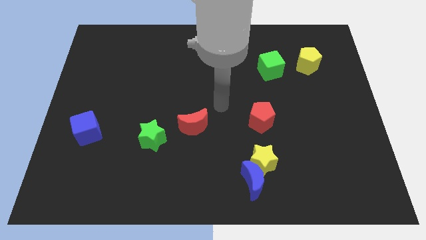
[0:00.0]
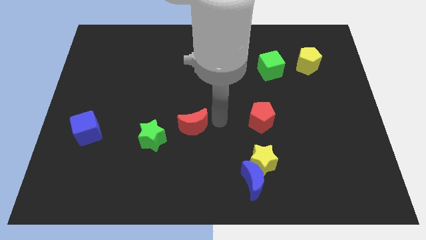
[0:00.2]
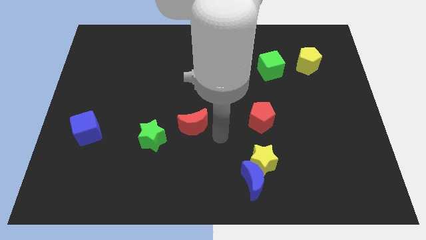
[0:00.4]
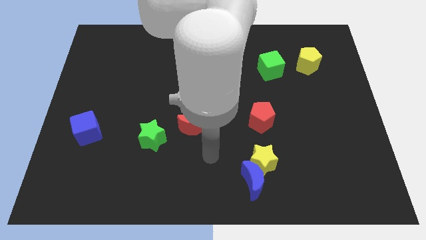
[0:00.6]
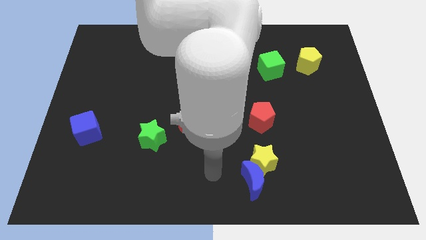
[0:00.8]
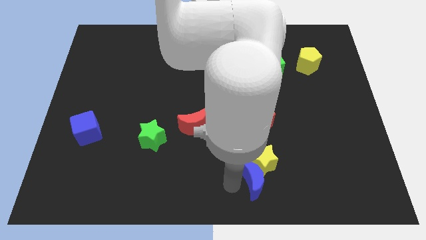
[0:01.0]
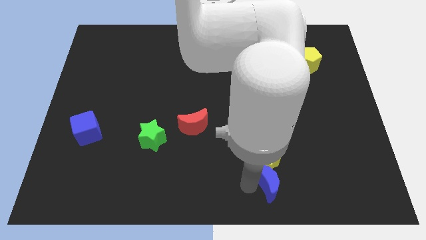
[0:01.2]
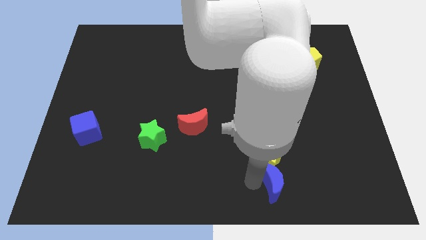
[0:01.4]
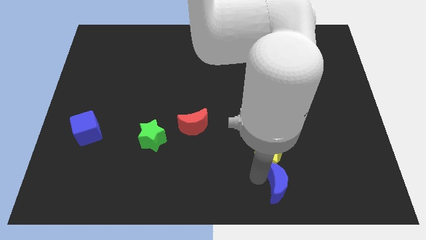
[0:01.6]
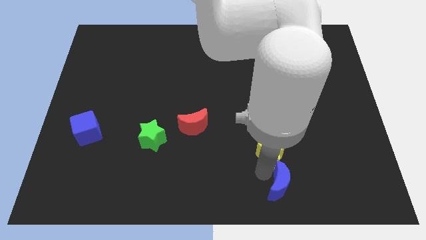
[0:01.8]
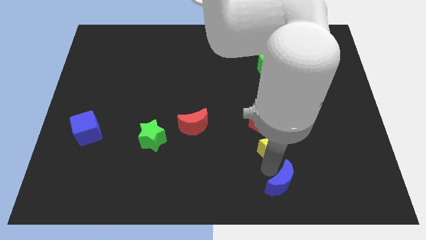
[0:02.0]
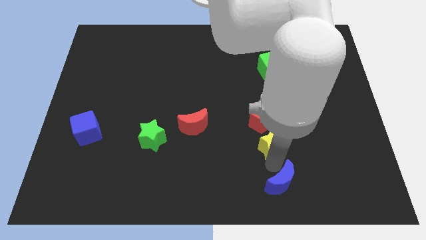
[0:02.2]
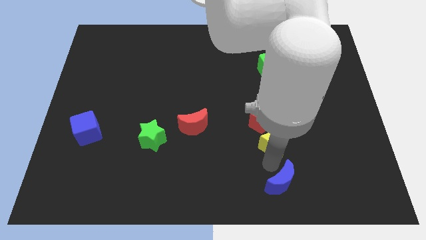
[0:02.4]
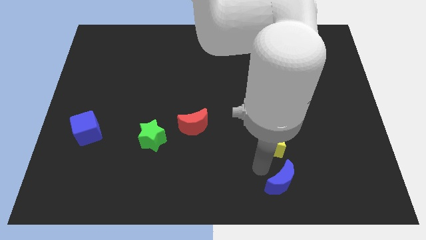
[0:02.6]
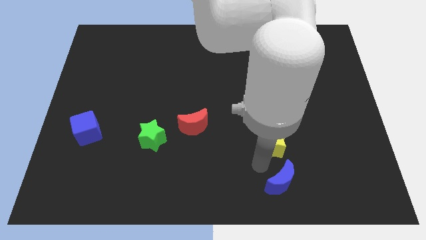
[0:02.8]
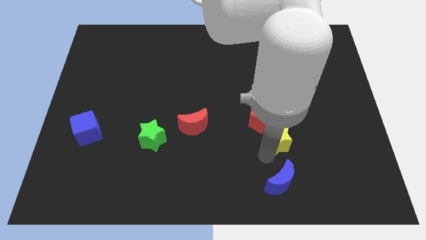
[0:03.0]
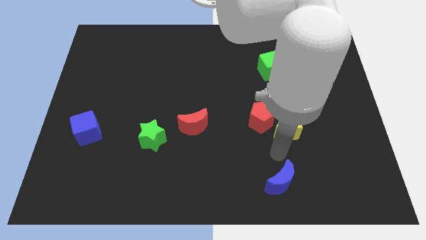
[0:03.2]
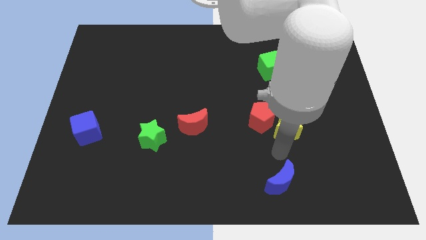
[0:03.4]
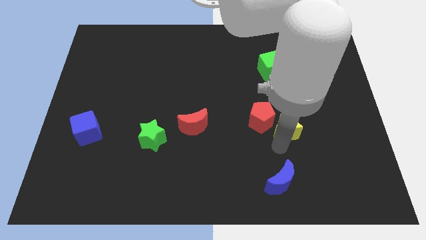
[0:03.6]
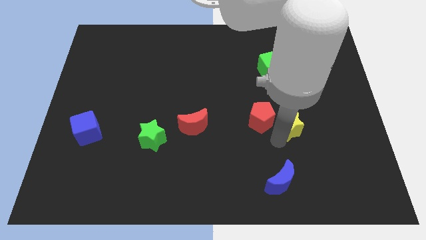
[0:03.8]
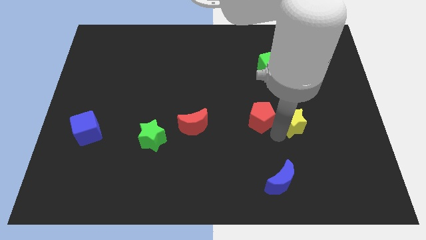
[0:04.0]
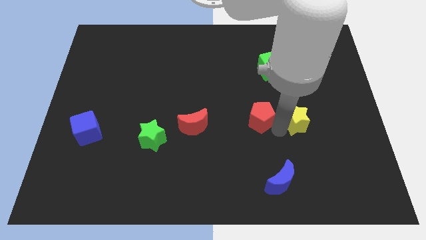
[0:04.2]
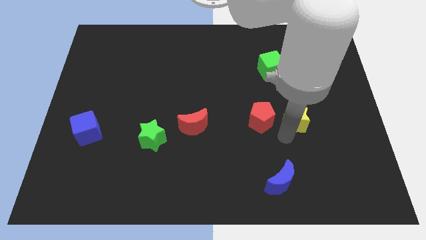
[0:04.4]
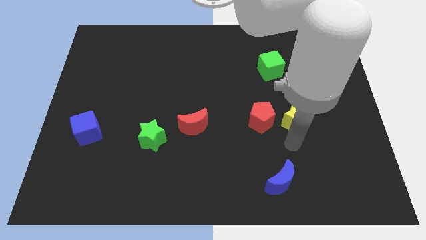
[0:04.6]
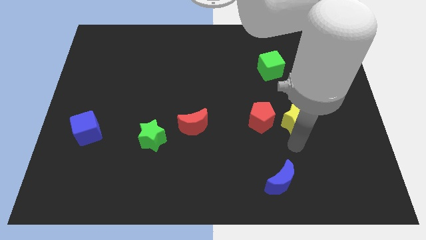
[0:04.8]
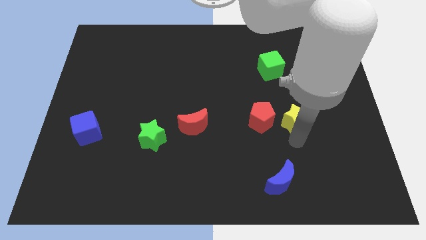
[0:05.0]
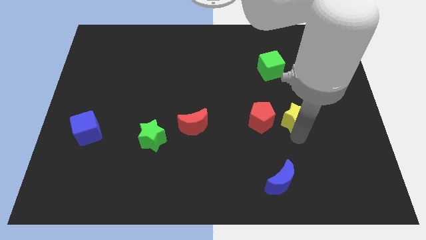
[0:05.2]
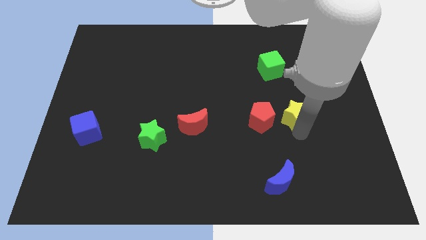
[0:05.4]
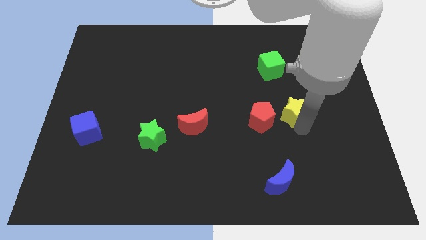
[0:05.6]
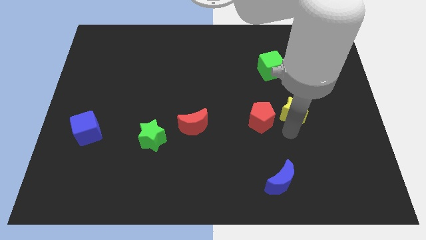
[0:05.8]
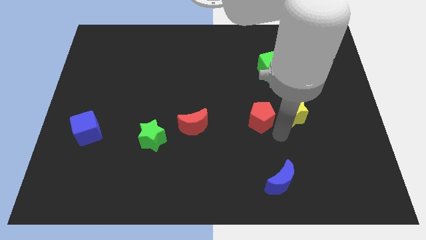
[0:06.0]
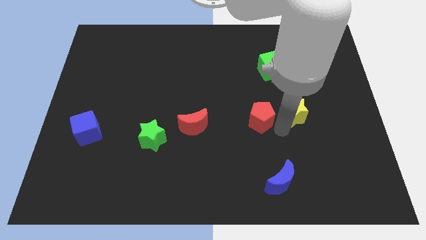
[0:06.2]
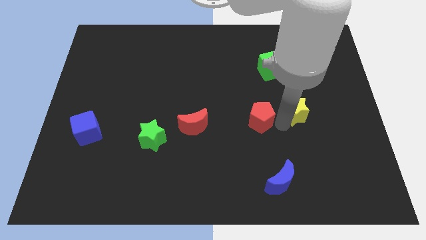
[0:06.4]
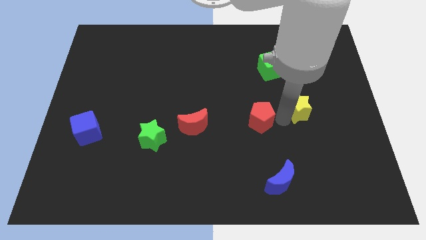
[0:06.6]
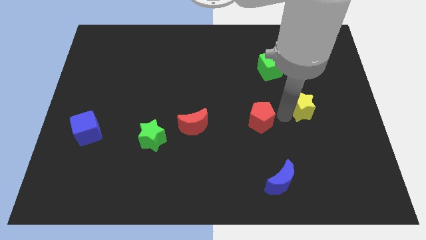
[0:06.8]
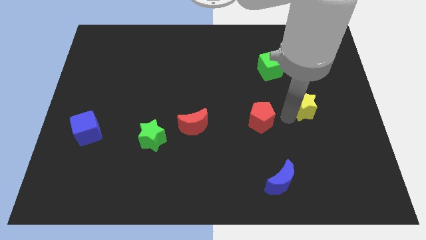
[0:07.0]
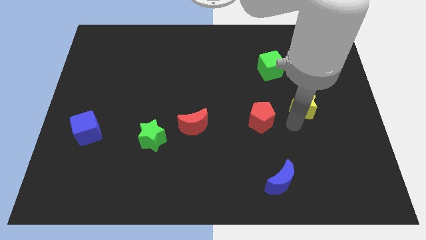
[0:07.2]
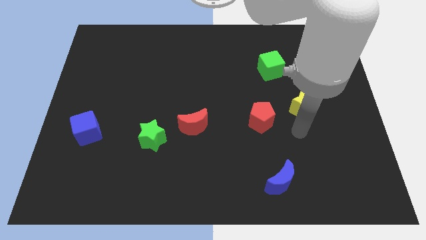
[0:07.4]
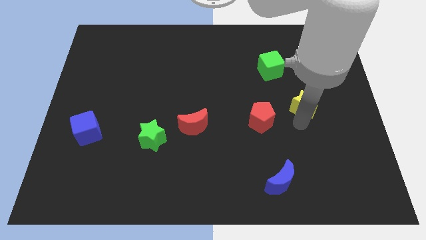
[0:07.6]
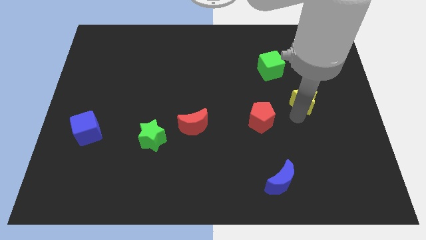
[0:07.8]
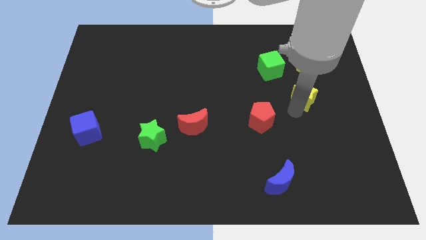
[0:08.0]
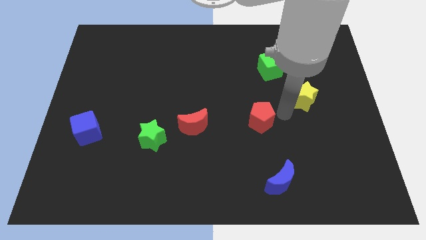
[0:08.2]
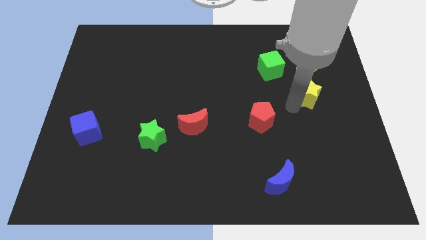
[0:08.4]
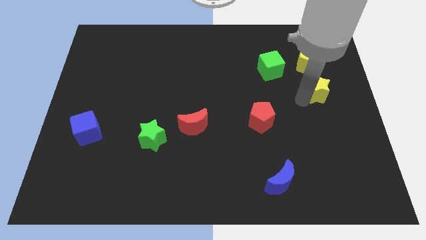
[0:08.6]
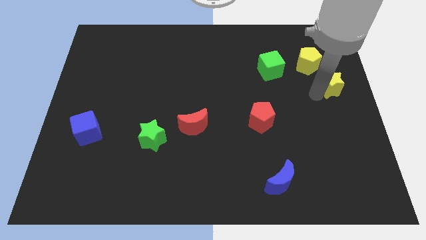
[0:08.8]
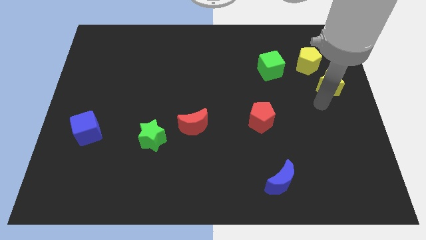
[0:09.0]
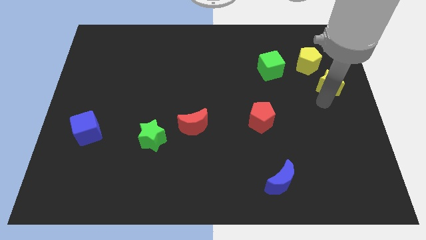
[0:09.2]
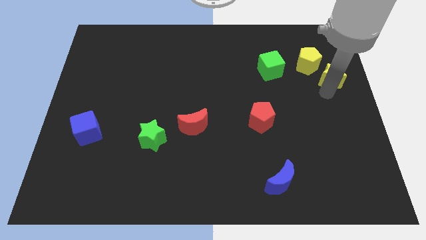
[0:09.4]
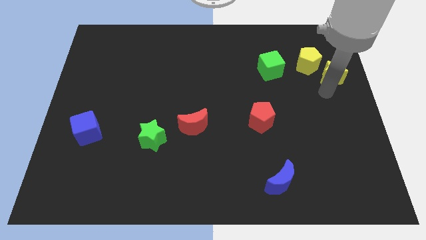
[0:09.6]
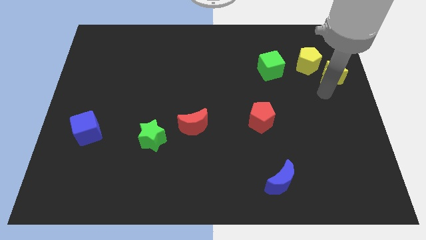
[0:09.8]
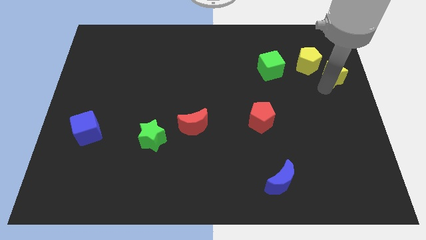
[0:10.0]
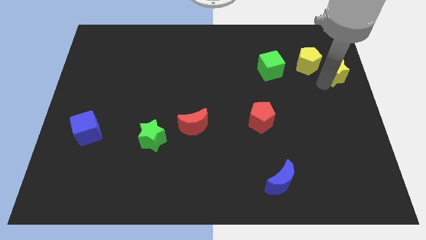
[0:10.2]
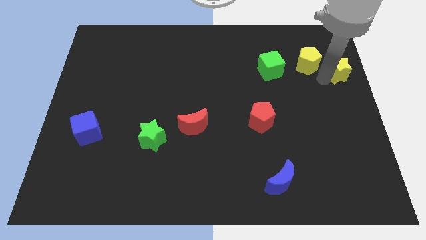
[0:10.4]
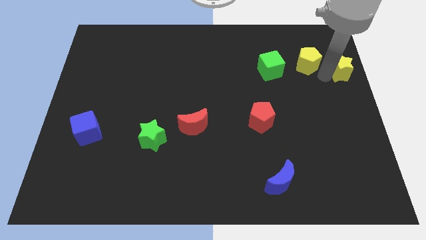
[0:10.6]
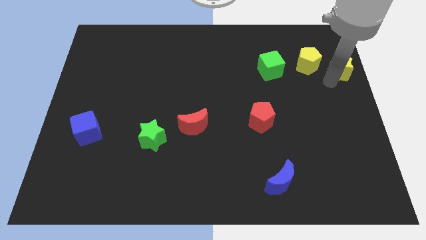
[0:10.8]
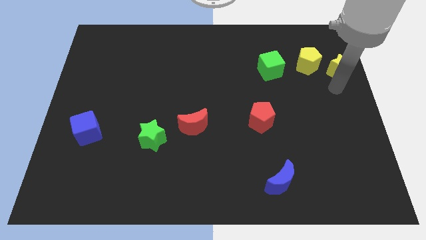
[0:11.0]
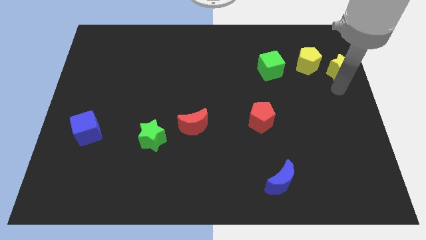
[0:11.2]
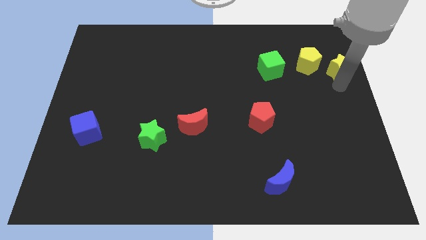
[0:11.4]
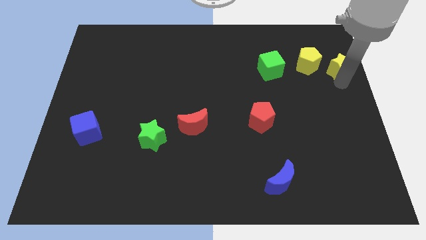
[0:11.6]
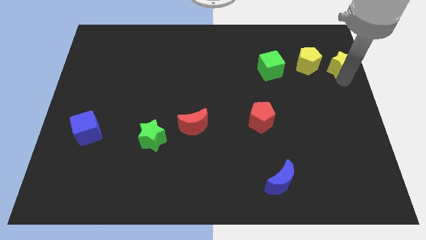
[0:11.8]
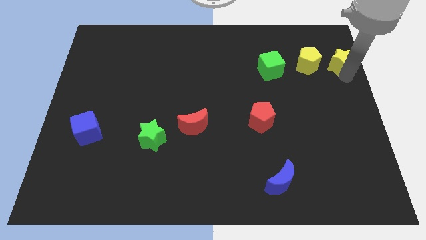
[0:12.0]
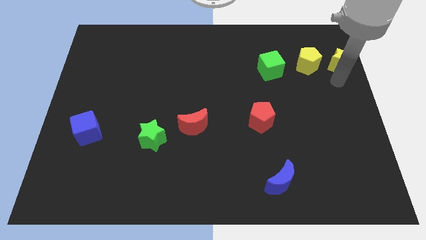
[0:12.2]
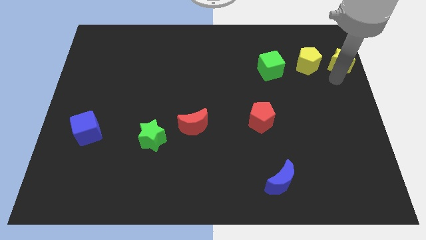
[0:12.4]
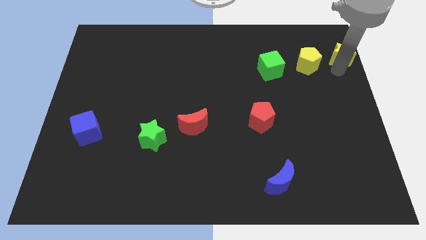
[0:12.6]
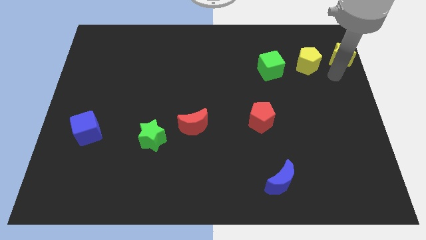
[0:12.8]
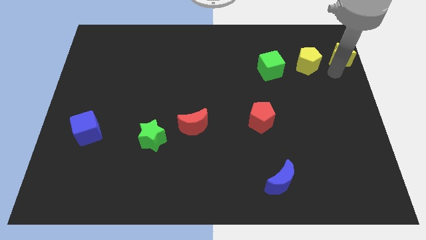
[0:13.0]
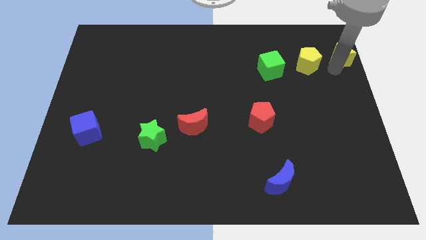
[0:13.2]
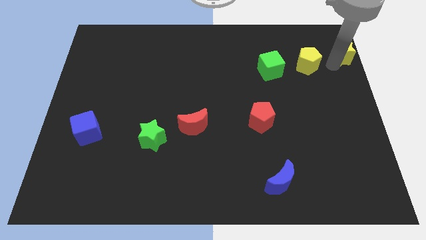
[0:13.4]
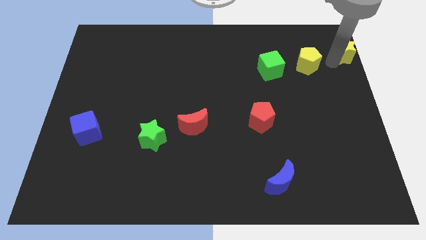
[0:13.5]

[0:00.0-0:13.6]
put the yellow star to the upper right corner
